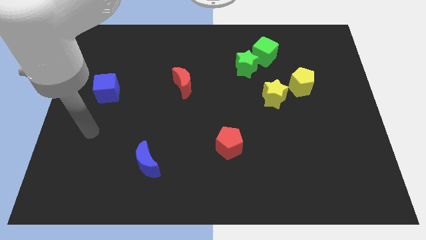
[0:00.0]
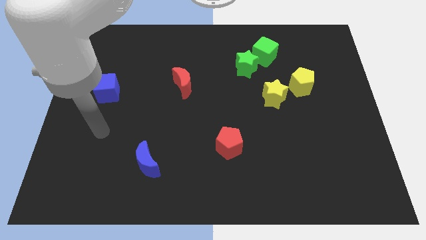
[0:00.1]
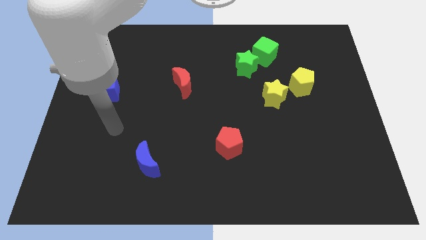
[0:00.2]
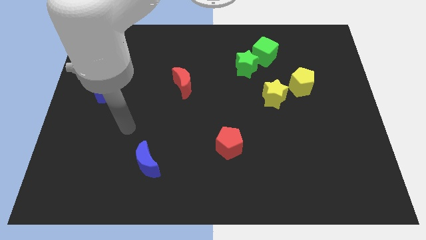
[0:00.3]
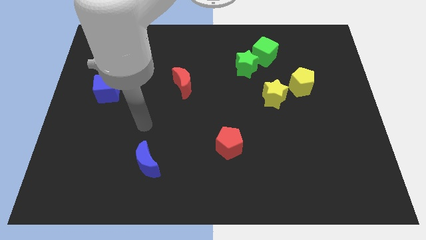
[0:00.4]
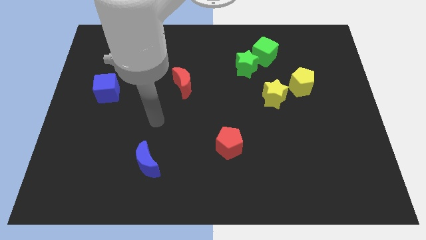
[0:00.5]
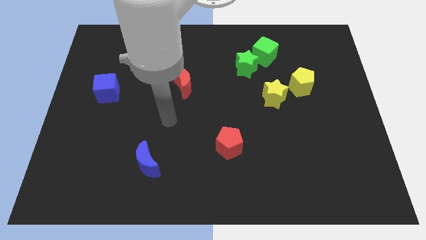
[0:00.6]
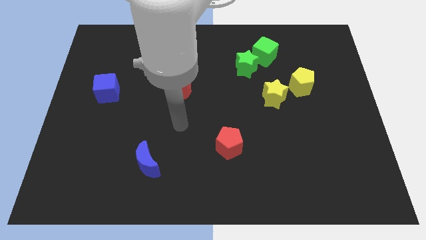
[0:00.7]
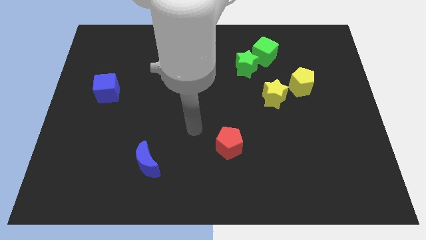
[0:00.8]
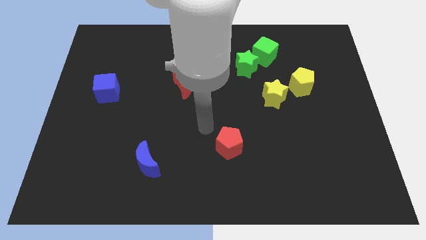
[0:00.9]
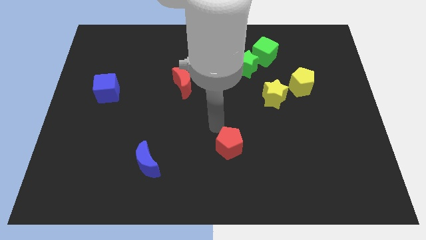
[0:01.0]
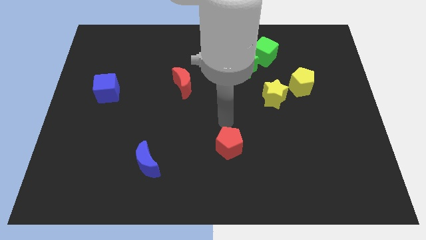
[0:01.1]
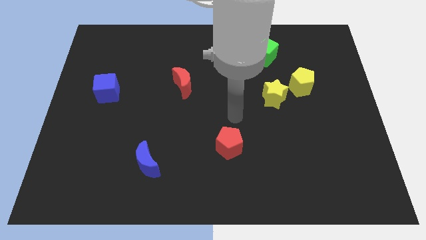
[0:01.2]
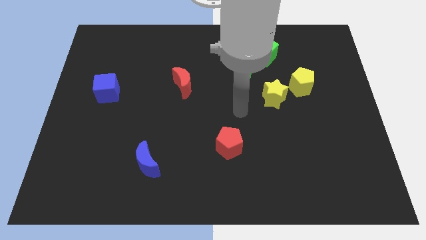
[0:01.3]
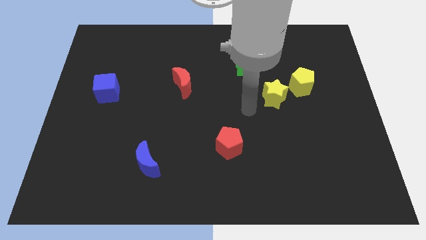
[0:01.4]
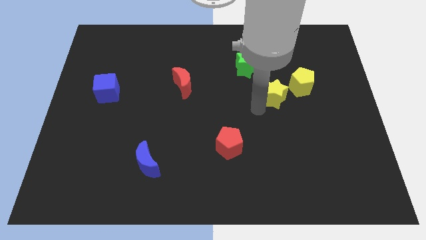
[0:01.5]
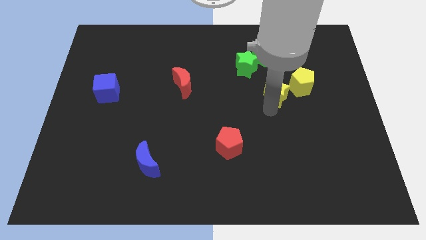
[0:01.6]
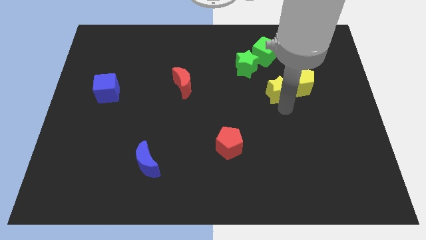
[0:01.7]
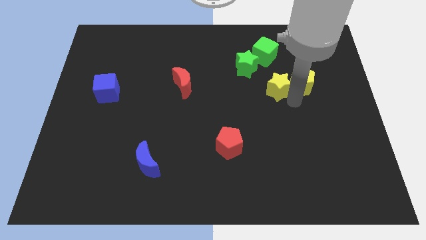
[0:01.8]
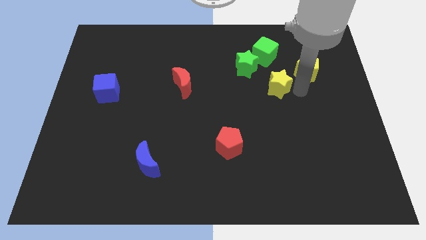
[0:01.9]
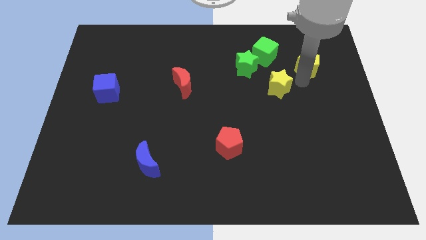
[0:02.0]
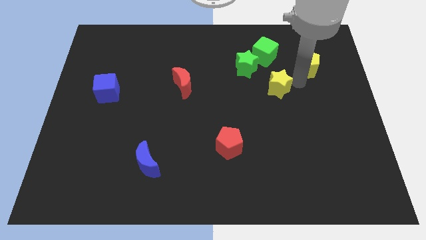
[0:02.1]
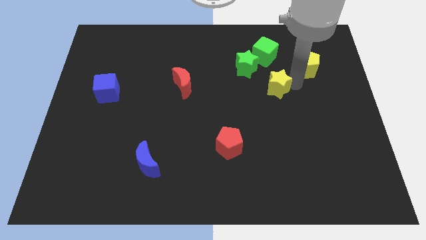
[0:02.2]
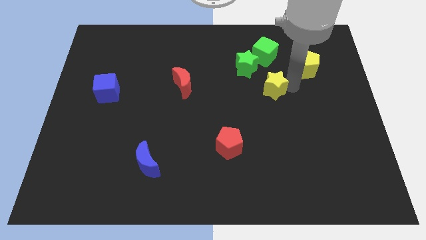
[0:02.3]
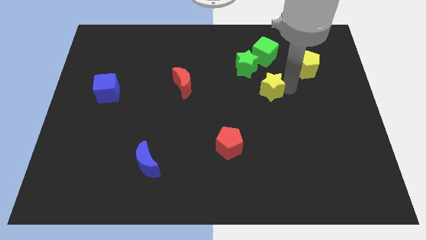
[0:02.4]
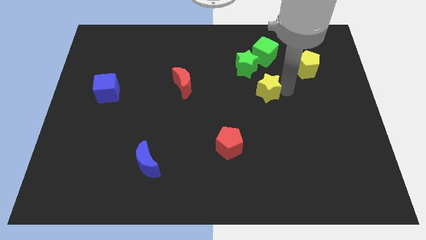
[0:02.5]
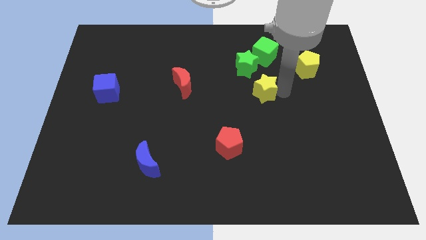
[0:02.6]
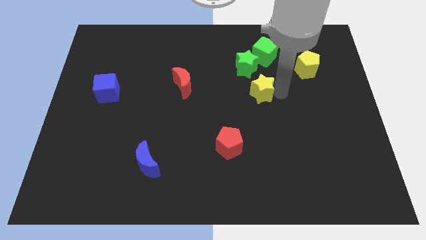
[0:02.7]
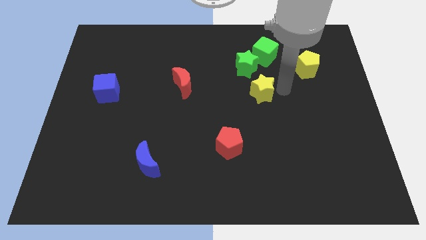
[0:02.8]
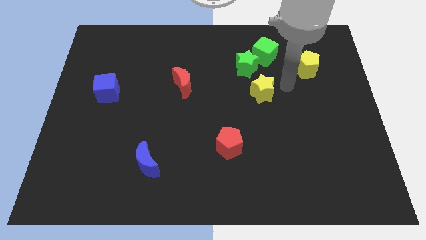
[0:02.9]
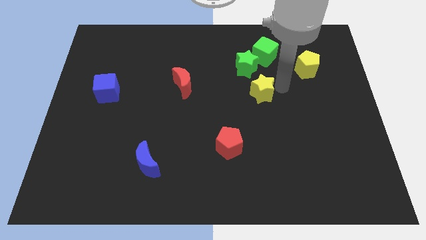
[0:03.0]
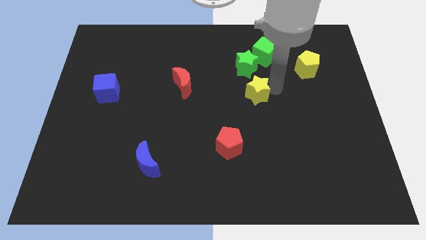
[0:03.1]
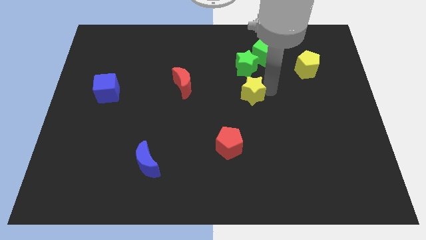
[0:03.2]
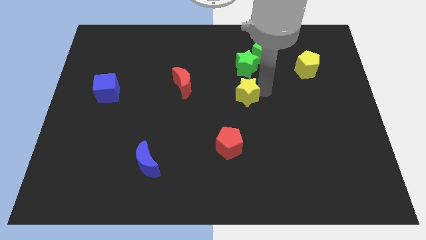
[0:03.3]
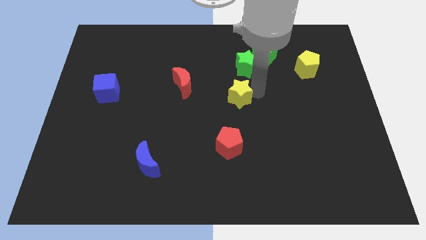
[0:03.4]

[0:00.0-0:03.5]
slightly move the yellow star to the left

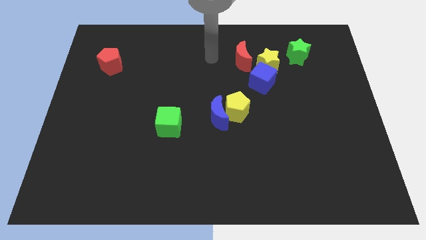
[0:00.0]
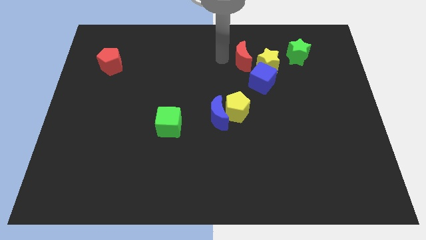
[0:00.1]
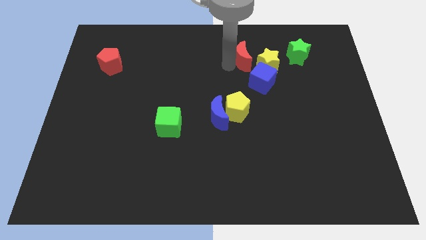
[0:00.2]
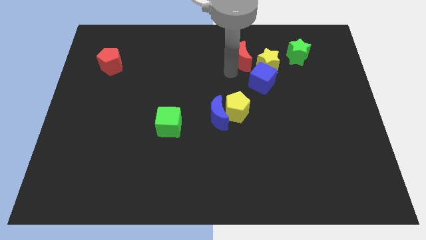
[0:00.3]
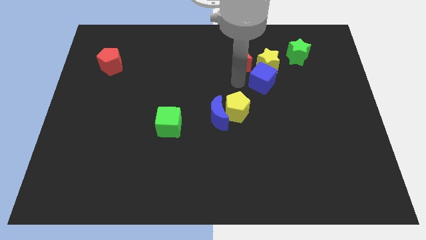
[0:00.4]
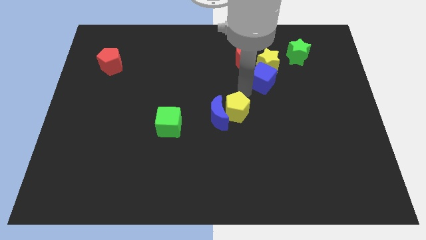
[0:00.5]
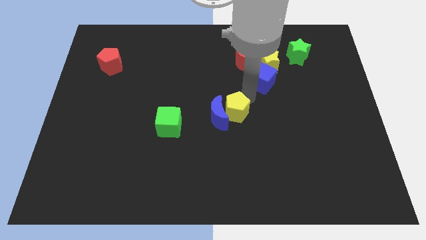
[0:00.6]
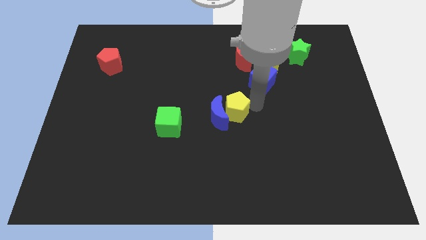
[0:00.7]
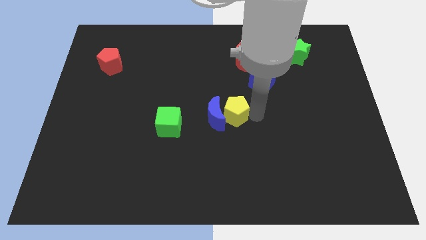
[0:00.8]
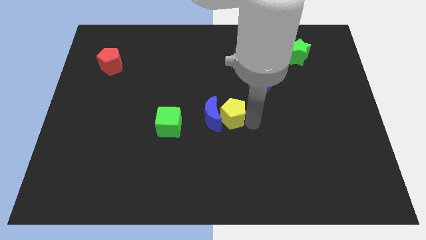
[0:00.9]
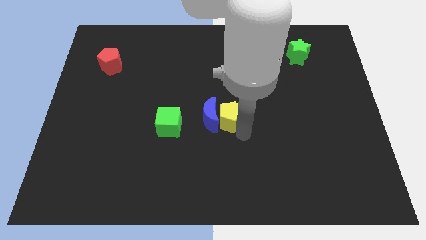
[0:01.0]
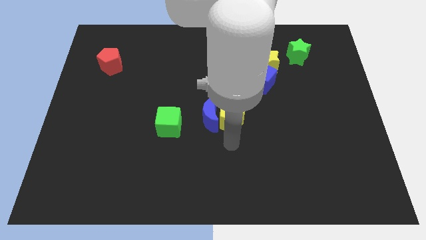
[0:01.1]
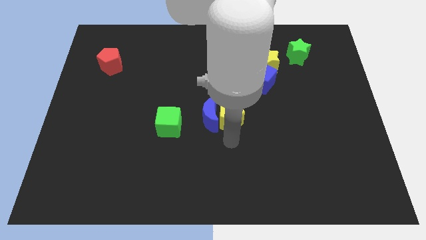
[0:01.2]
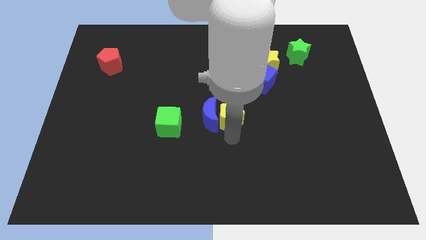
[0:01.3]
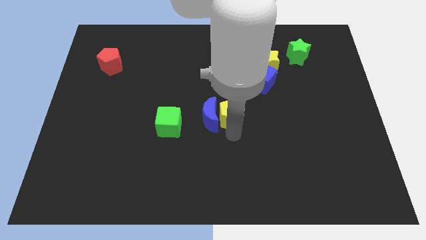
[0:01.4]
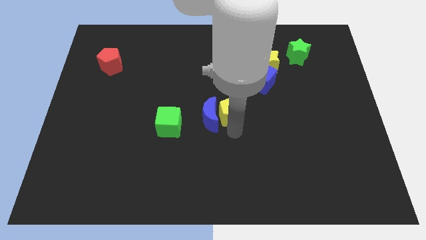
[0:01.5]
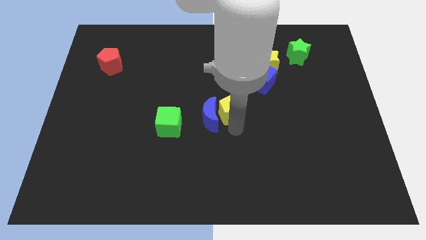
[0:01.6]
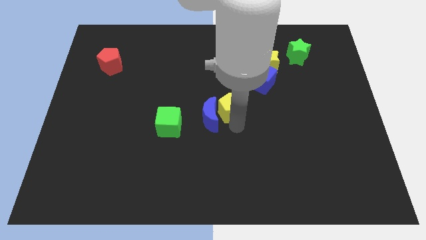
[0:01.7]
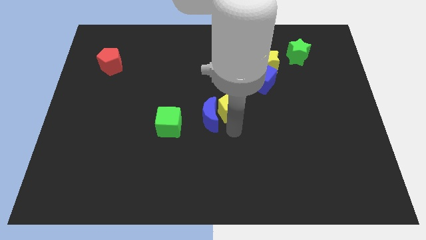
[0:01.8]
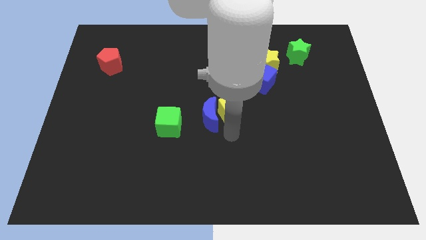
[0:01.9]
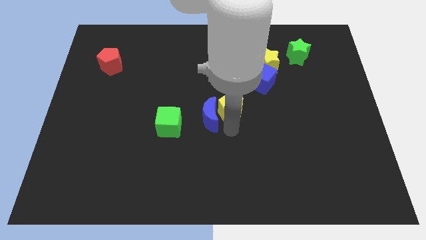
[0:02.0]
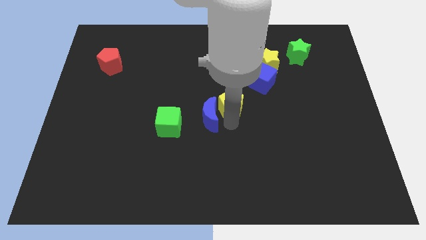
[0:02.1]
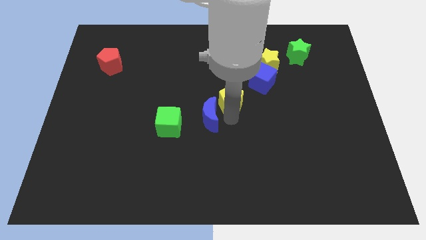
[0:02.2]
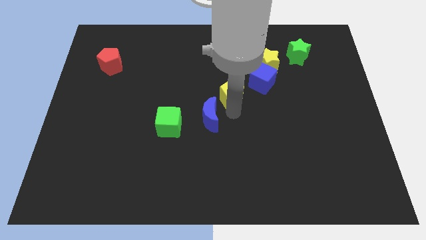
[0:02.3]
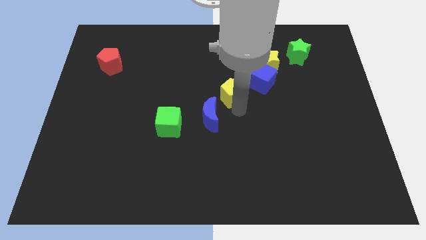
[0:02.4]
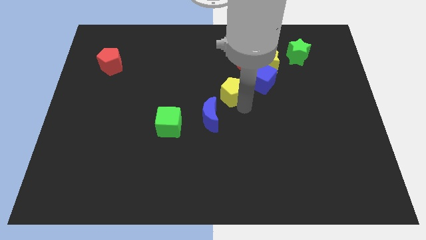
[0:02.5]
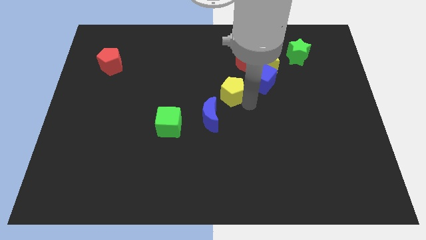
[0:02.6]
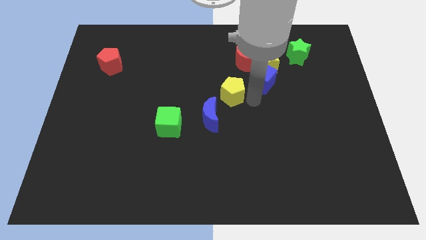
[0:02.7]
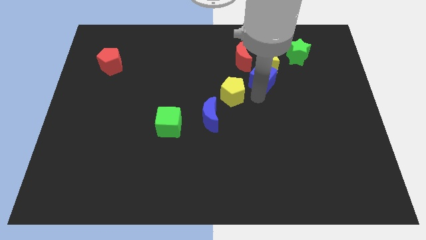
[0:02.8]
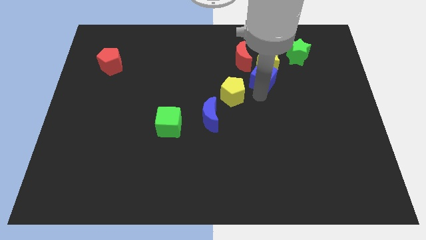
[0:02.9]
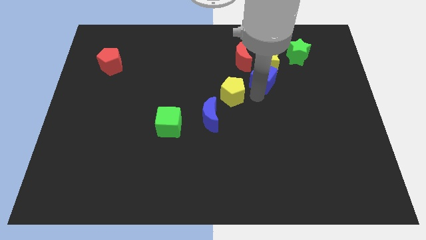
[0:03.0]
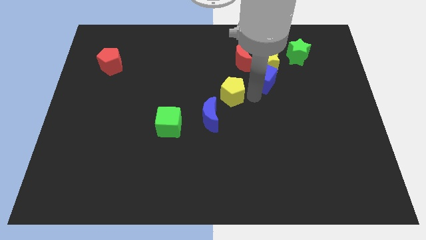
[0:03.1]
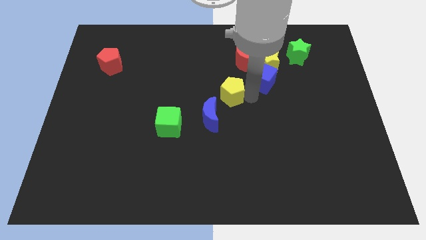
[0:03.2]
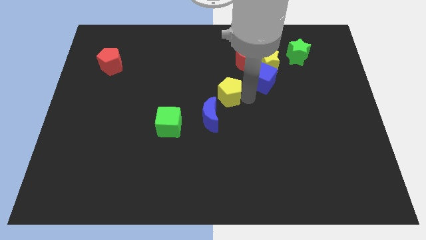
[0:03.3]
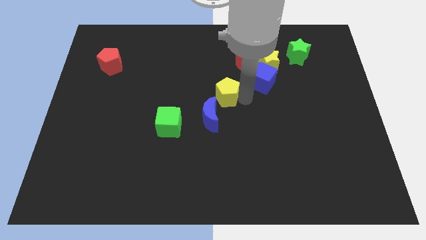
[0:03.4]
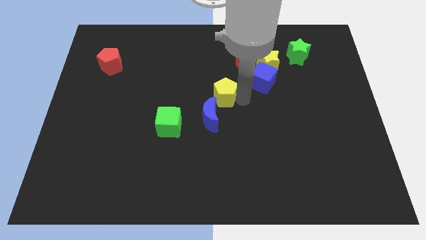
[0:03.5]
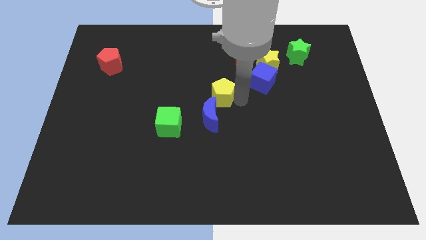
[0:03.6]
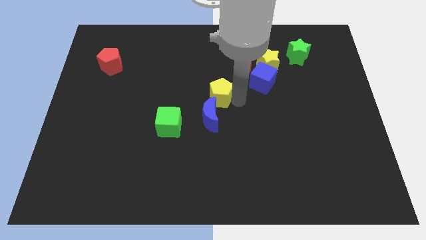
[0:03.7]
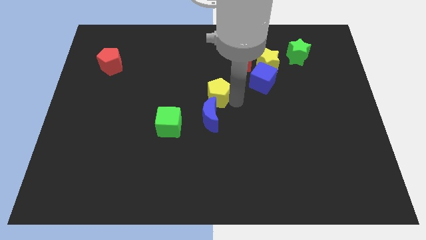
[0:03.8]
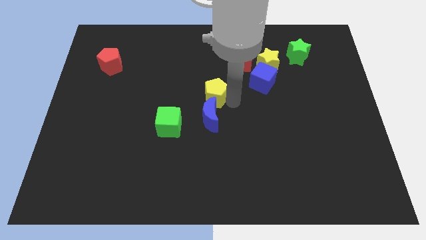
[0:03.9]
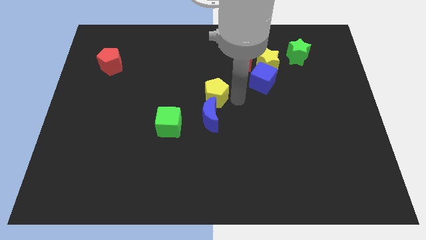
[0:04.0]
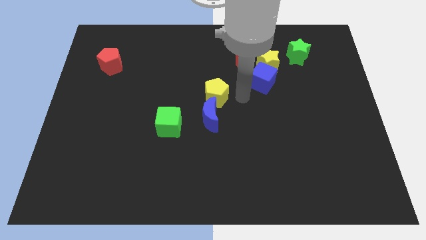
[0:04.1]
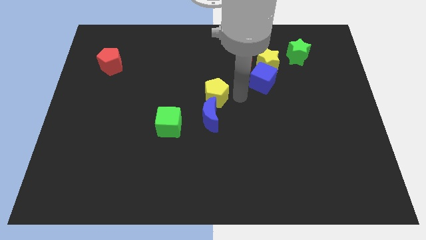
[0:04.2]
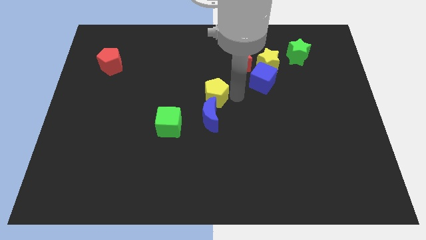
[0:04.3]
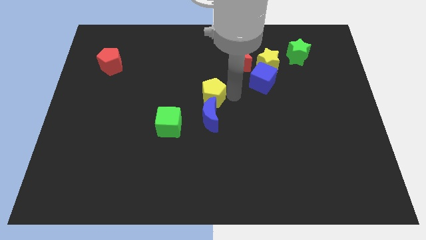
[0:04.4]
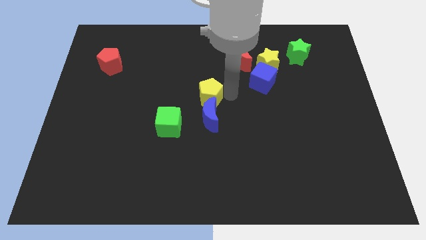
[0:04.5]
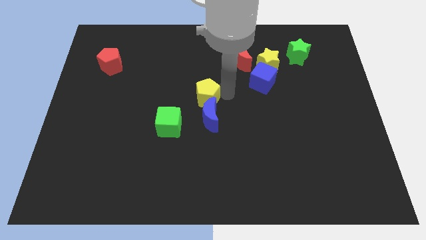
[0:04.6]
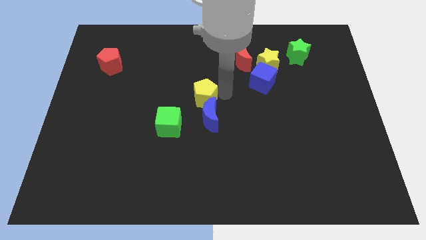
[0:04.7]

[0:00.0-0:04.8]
slightly slide the yellow pentagon to the left
